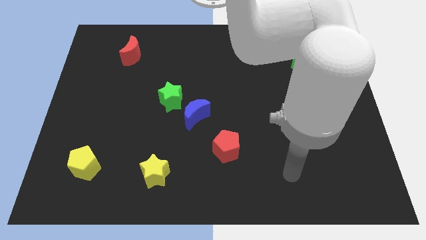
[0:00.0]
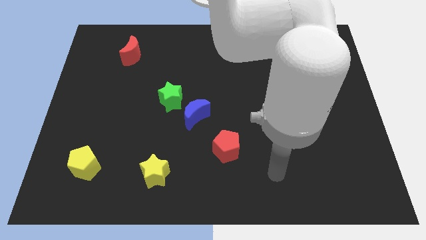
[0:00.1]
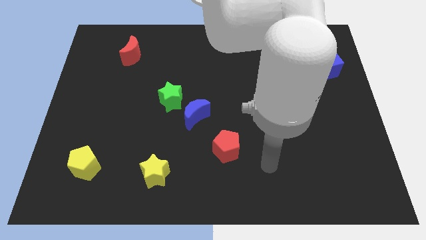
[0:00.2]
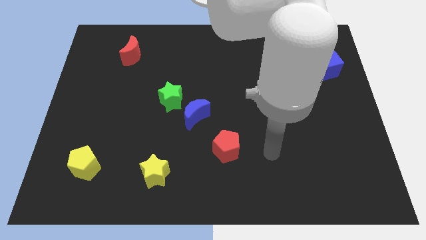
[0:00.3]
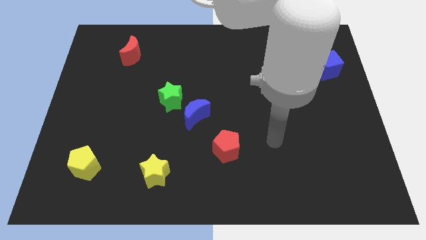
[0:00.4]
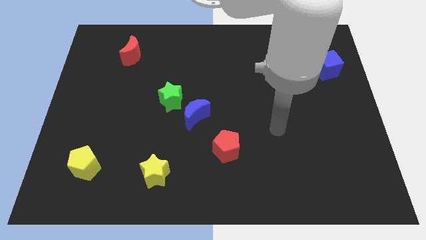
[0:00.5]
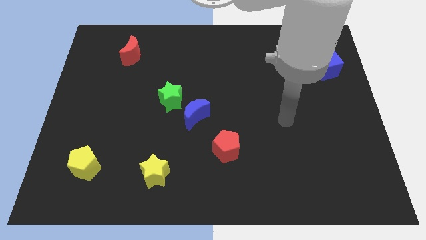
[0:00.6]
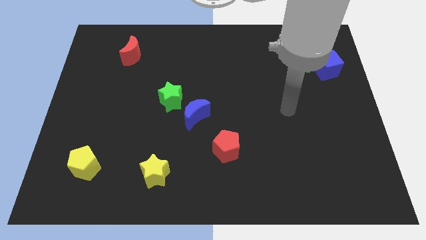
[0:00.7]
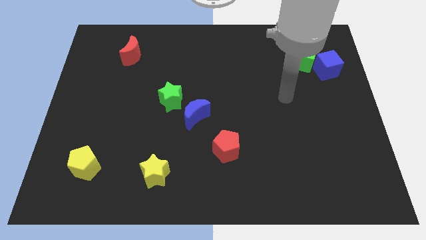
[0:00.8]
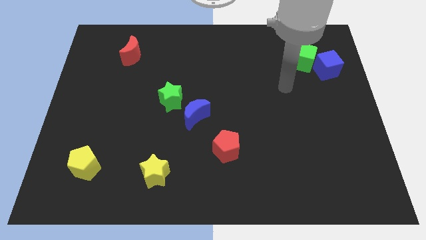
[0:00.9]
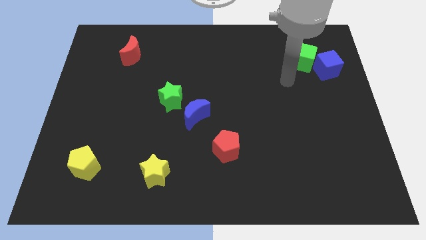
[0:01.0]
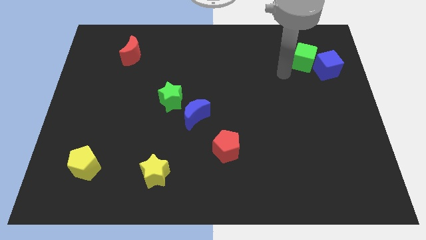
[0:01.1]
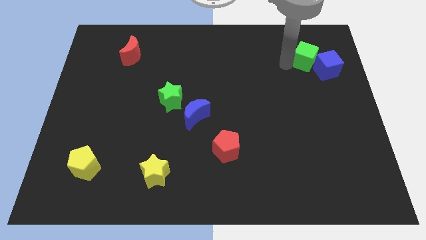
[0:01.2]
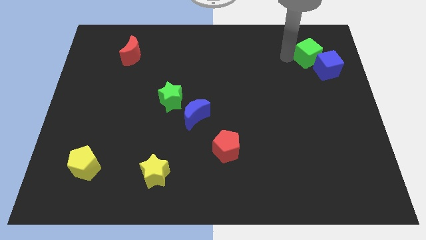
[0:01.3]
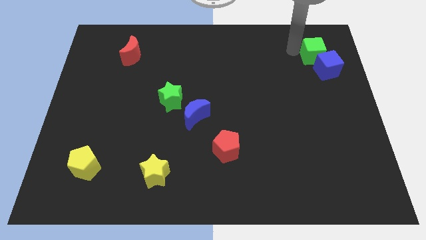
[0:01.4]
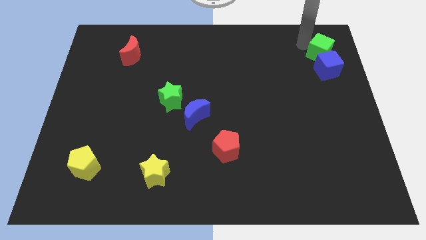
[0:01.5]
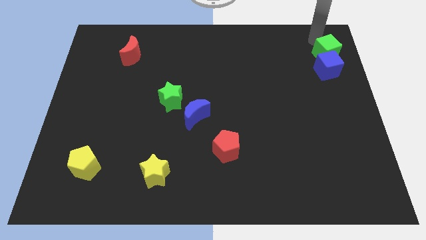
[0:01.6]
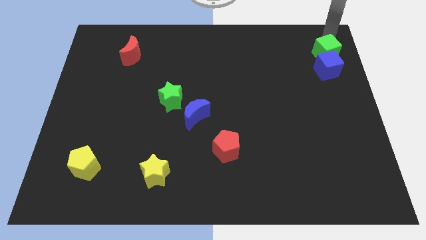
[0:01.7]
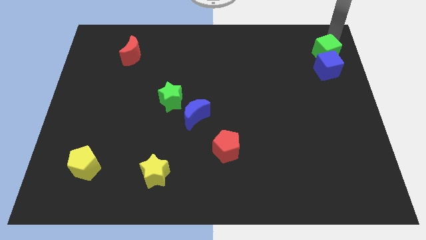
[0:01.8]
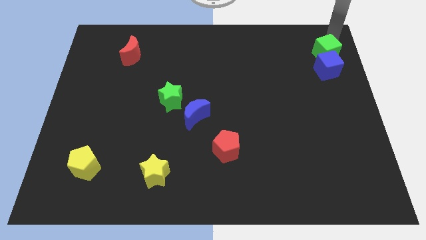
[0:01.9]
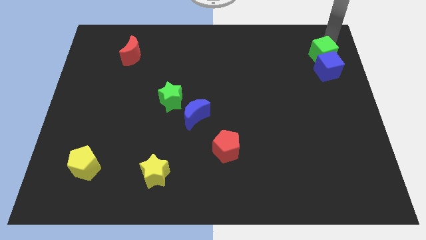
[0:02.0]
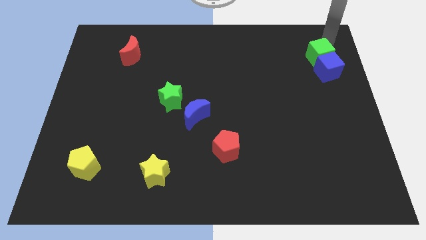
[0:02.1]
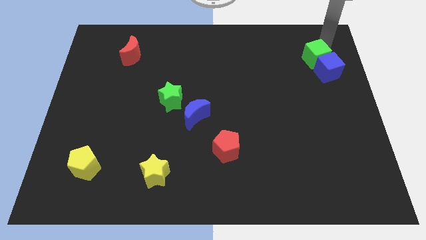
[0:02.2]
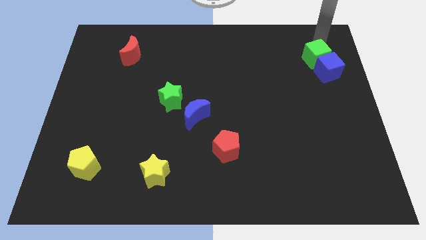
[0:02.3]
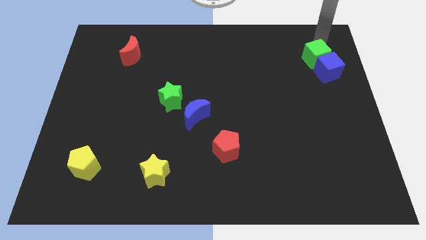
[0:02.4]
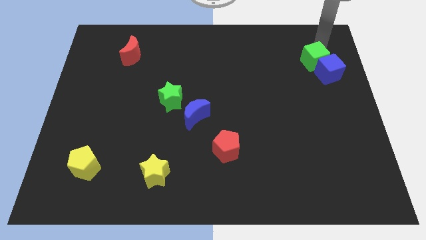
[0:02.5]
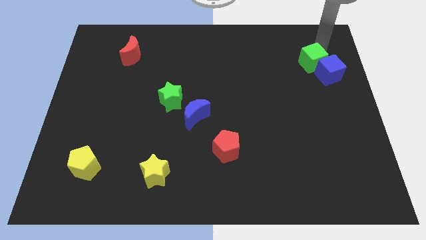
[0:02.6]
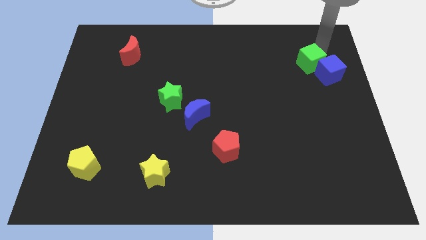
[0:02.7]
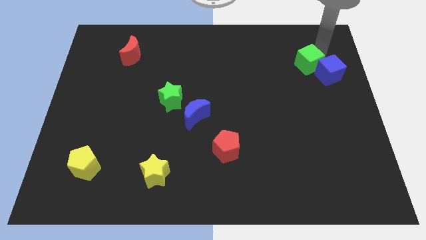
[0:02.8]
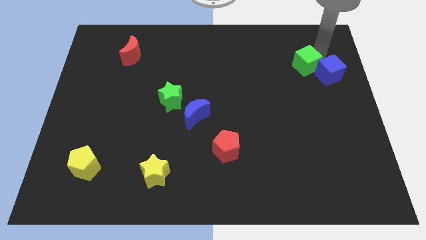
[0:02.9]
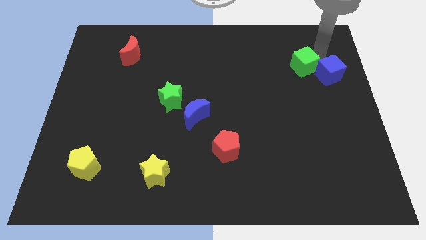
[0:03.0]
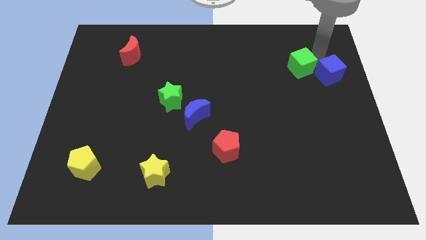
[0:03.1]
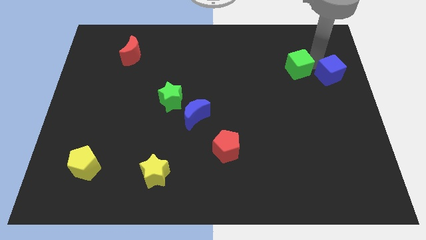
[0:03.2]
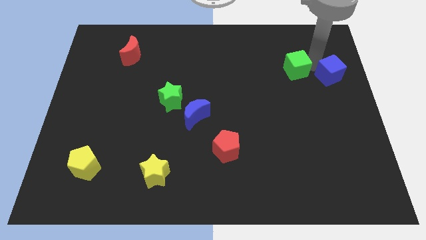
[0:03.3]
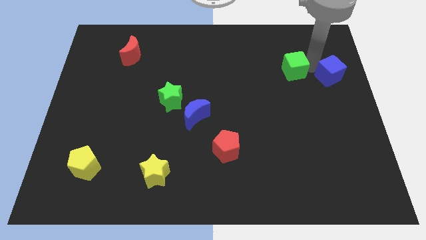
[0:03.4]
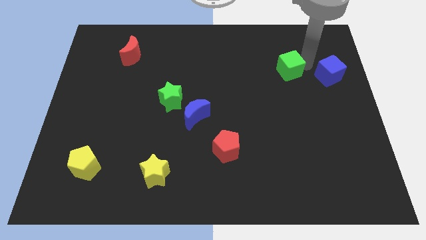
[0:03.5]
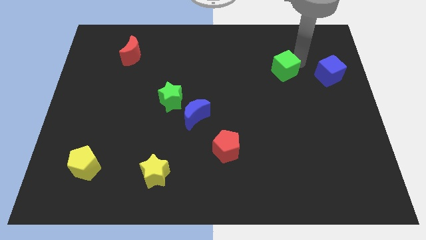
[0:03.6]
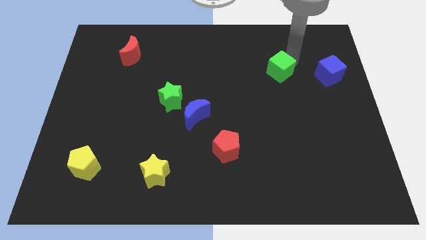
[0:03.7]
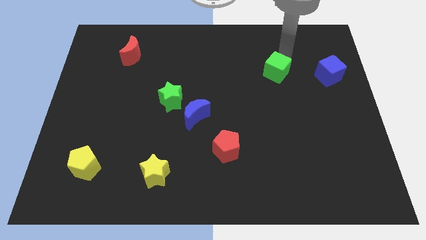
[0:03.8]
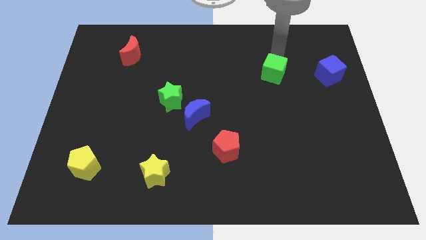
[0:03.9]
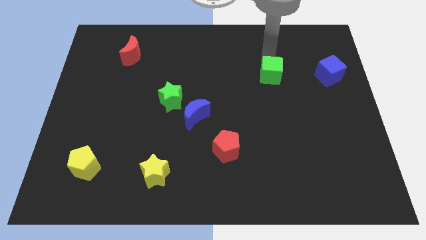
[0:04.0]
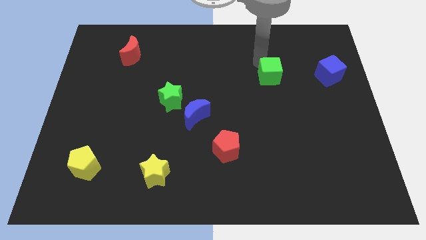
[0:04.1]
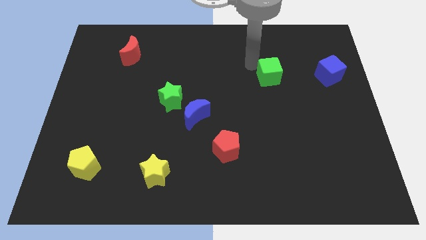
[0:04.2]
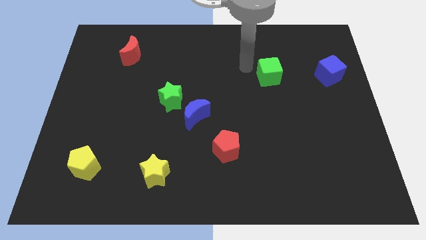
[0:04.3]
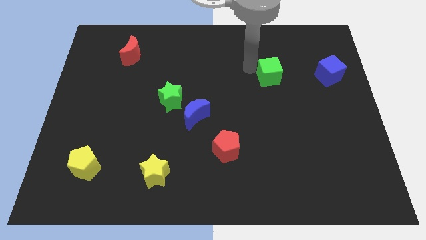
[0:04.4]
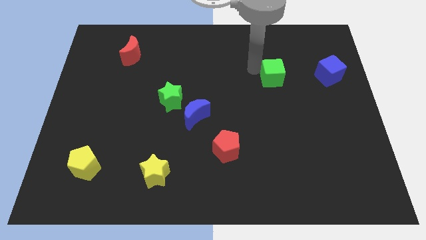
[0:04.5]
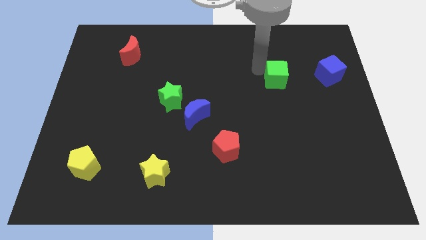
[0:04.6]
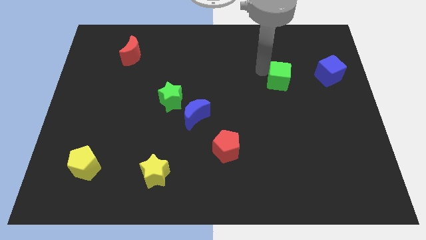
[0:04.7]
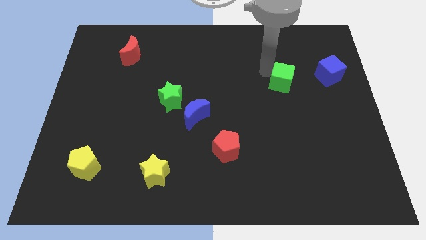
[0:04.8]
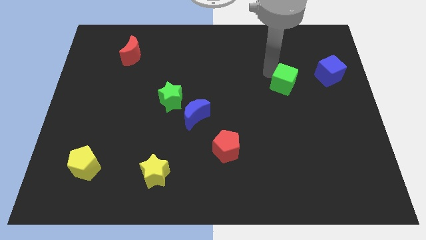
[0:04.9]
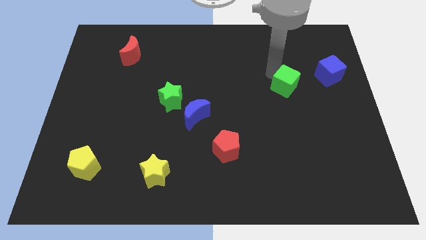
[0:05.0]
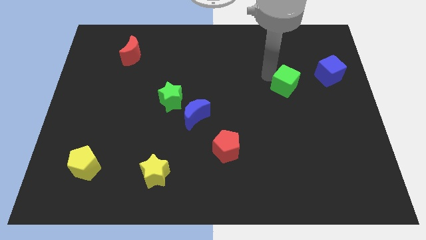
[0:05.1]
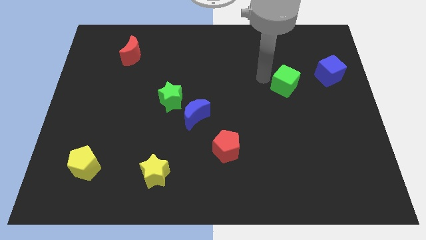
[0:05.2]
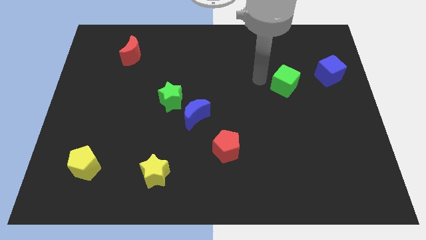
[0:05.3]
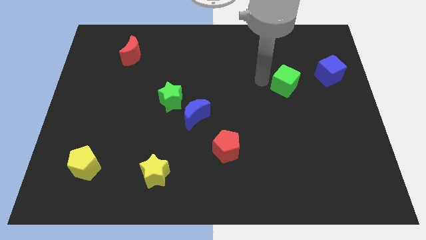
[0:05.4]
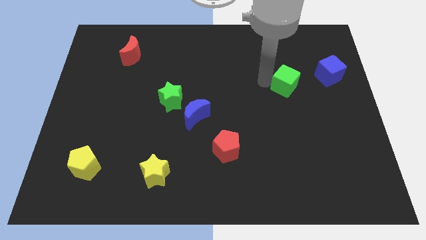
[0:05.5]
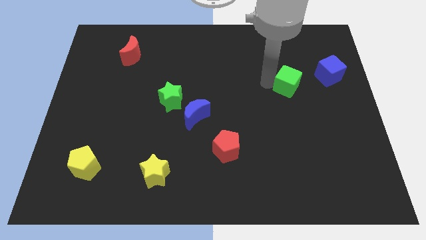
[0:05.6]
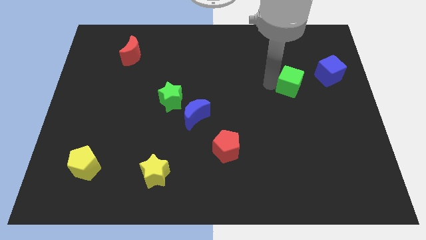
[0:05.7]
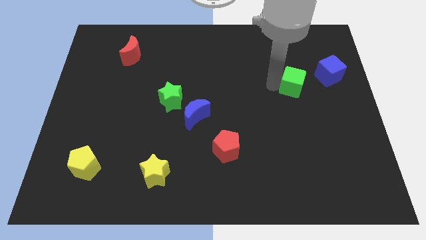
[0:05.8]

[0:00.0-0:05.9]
put the green cube to the bottom left of the blue cube

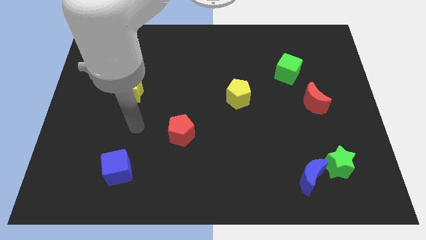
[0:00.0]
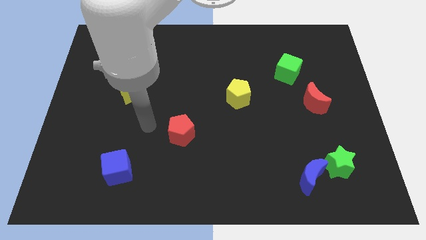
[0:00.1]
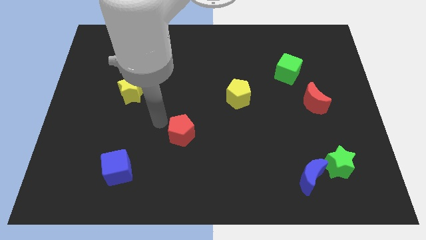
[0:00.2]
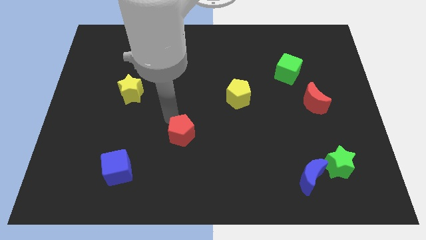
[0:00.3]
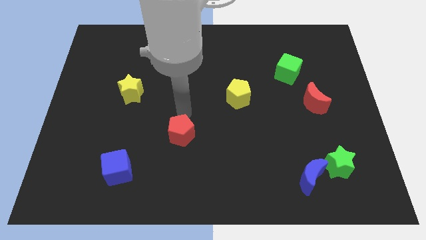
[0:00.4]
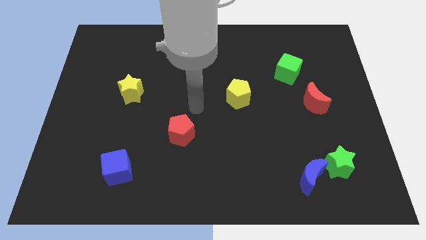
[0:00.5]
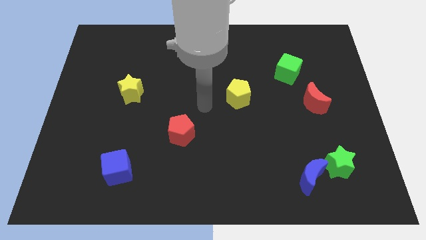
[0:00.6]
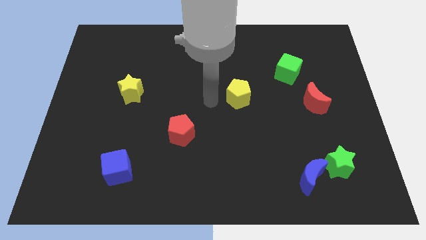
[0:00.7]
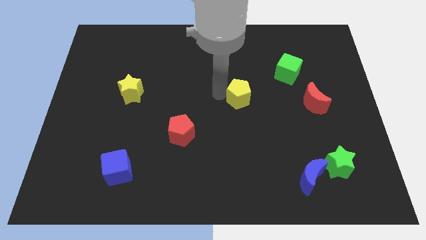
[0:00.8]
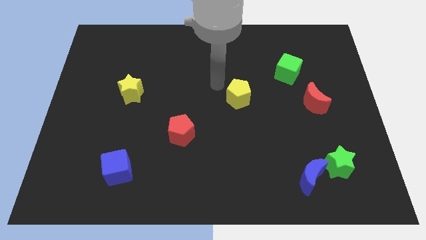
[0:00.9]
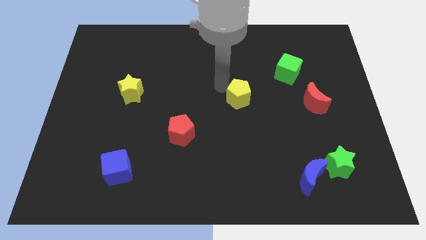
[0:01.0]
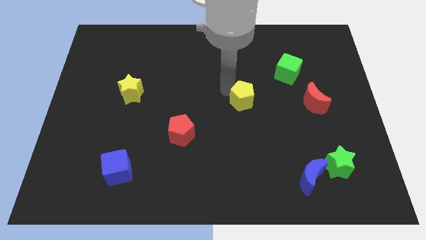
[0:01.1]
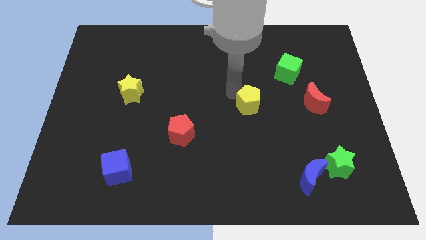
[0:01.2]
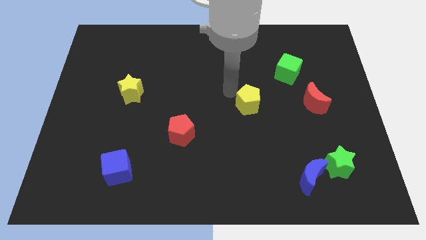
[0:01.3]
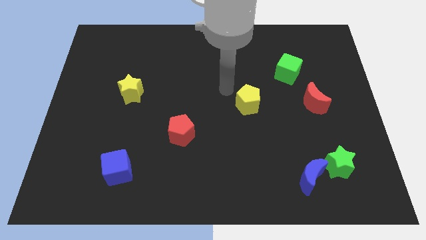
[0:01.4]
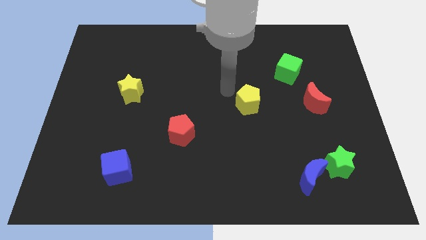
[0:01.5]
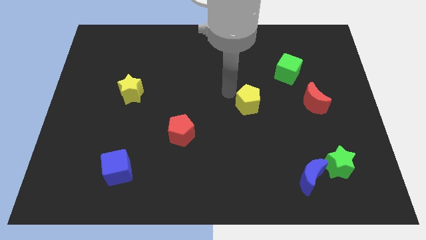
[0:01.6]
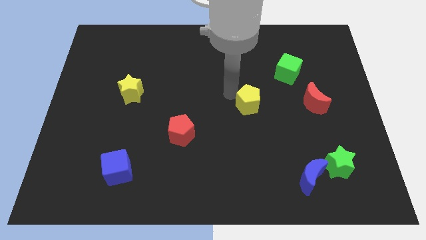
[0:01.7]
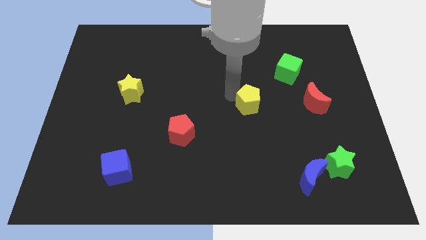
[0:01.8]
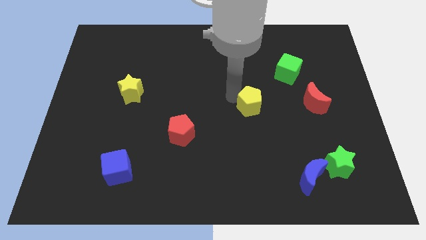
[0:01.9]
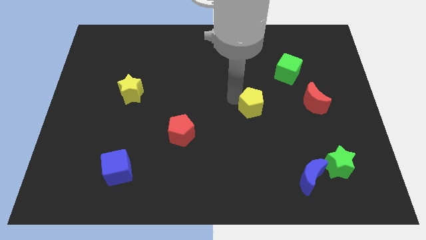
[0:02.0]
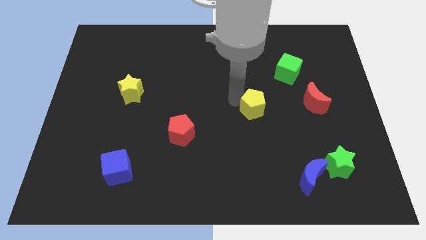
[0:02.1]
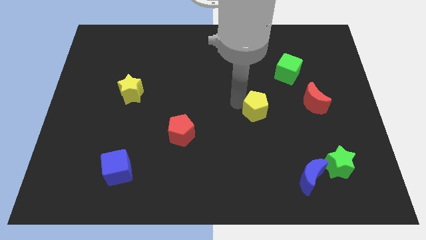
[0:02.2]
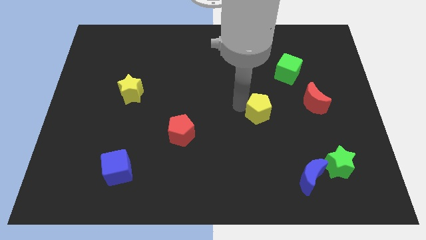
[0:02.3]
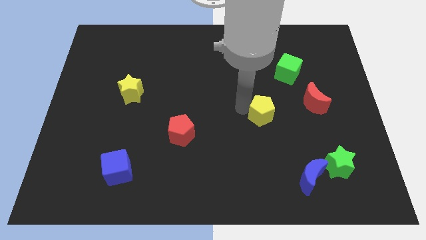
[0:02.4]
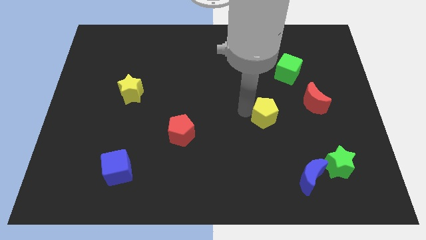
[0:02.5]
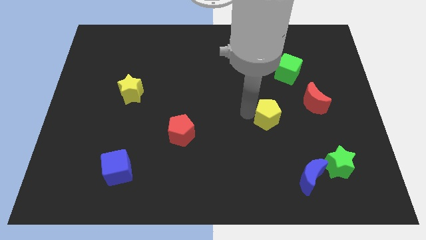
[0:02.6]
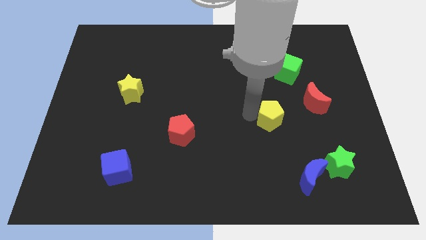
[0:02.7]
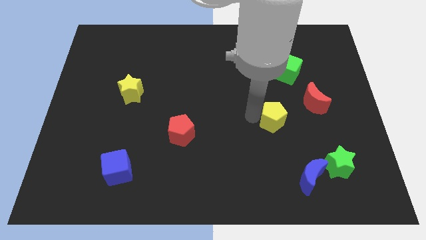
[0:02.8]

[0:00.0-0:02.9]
move the yellow pentagon to the bottom left of the red moon
